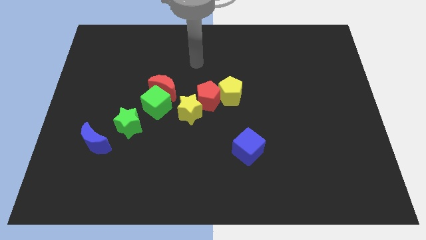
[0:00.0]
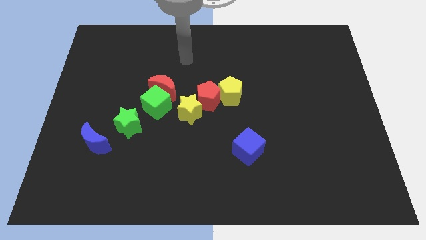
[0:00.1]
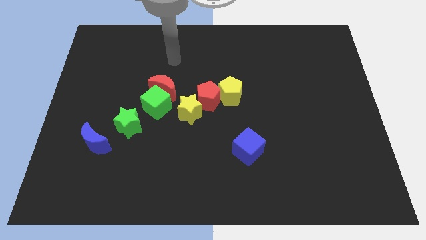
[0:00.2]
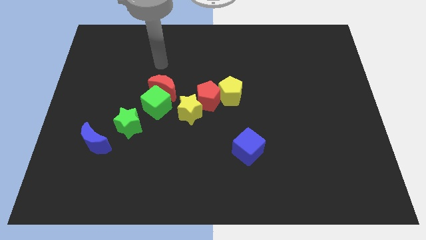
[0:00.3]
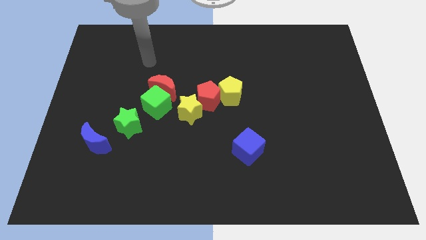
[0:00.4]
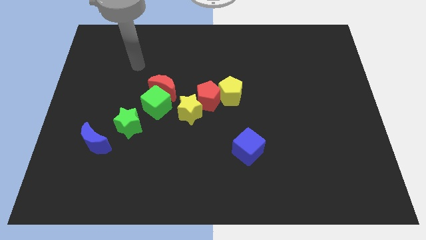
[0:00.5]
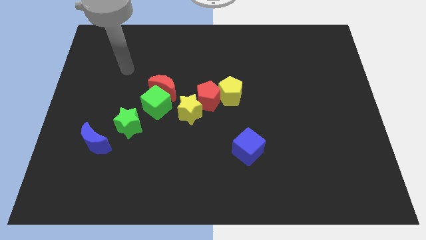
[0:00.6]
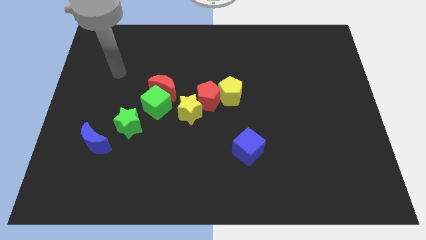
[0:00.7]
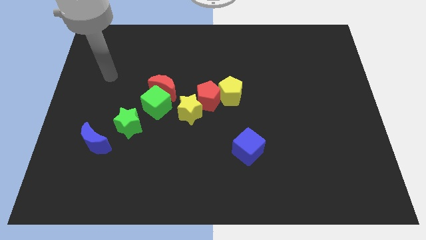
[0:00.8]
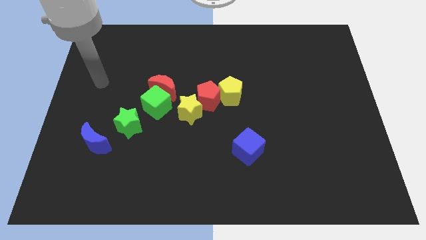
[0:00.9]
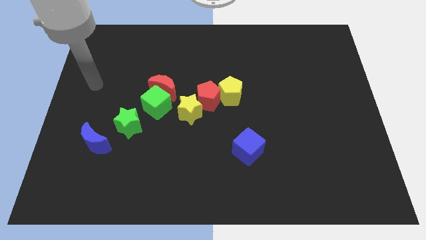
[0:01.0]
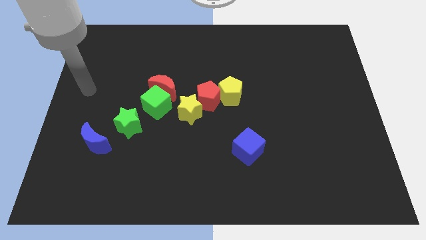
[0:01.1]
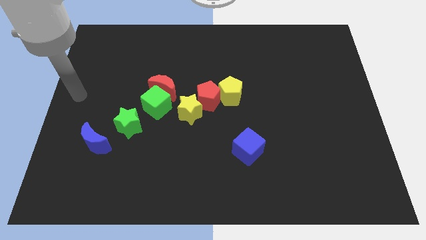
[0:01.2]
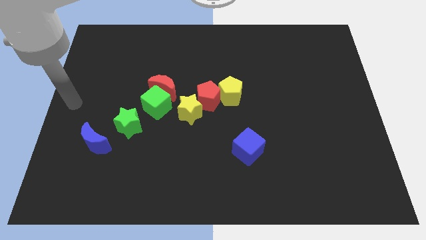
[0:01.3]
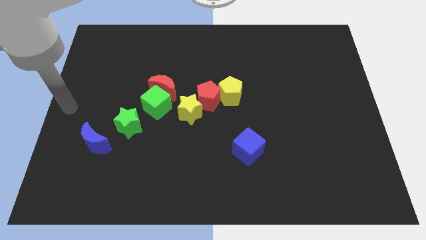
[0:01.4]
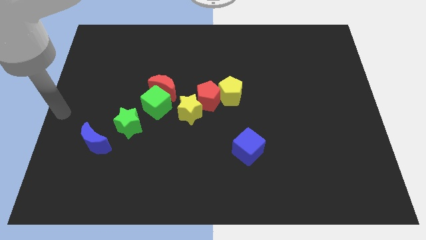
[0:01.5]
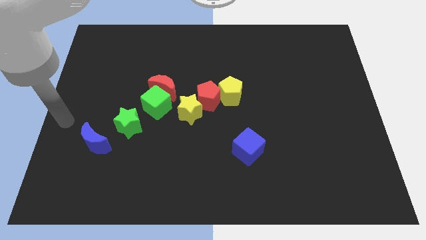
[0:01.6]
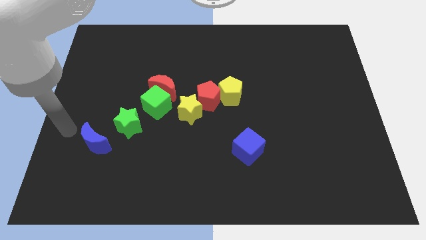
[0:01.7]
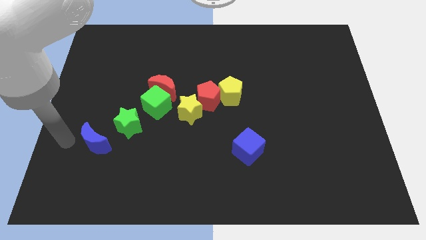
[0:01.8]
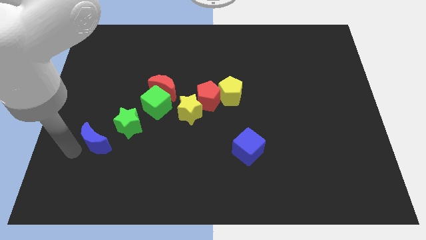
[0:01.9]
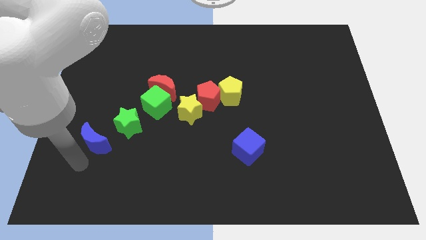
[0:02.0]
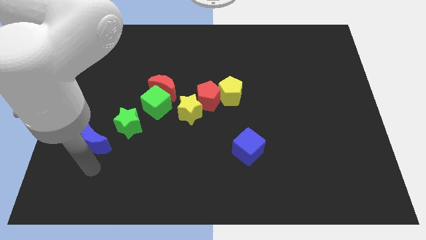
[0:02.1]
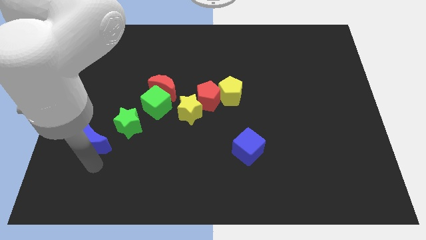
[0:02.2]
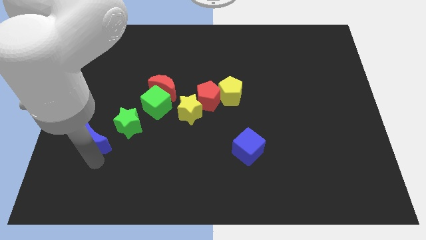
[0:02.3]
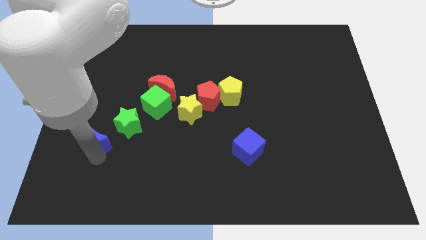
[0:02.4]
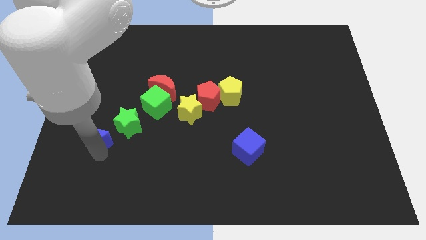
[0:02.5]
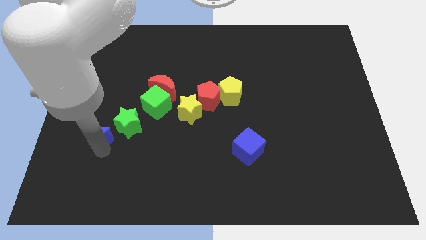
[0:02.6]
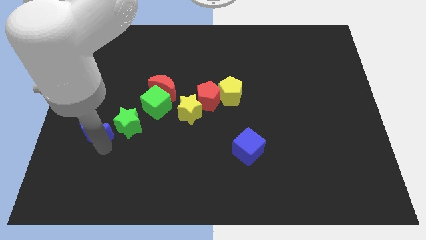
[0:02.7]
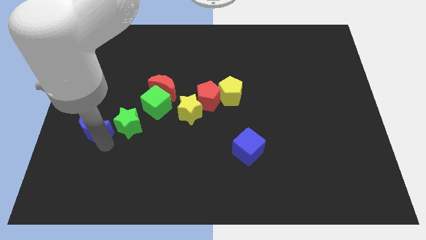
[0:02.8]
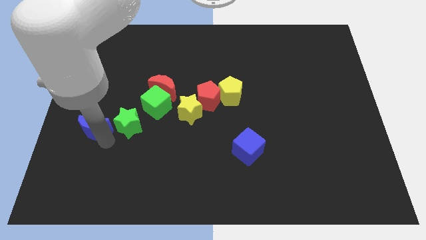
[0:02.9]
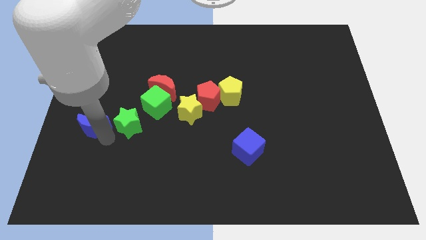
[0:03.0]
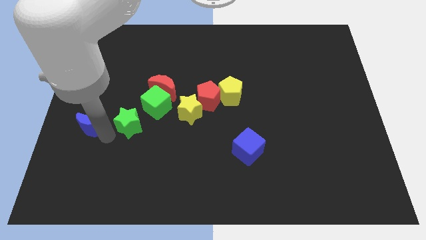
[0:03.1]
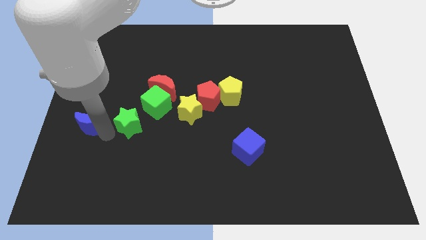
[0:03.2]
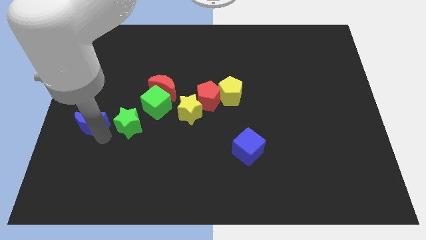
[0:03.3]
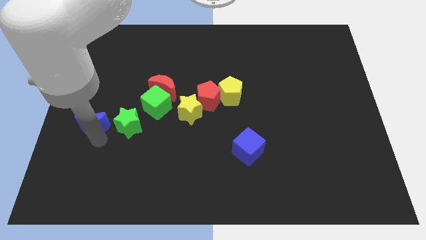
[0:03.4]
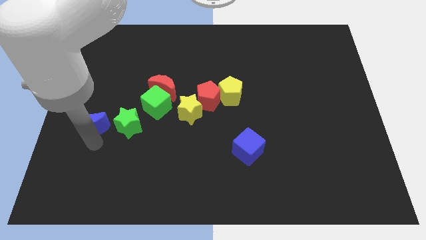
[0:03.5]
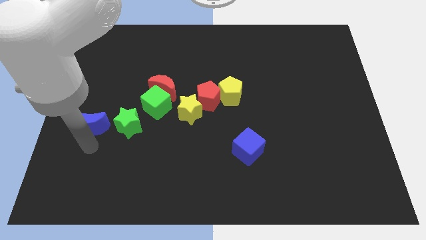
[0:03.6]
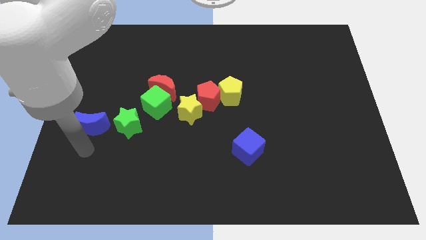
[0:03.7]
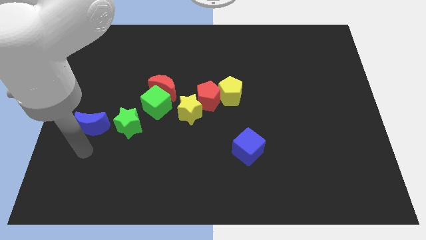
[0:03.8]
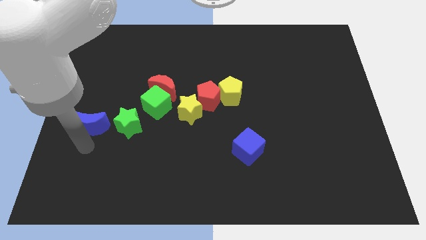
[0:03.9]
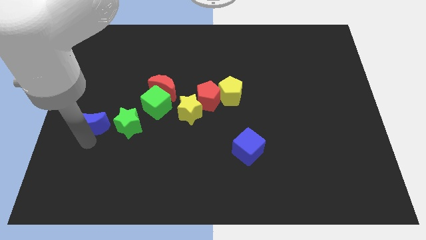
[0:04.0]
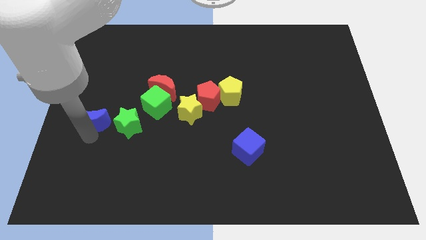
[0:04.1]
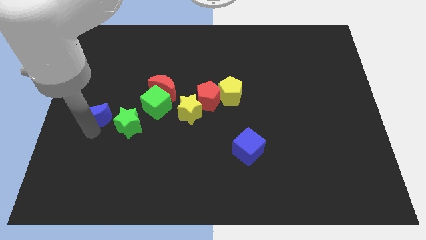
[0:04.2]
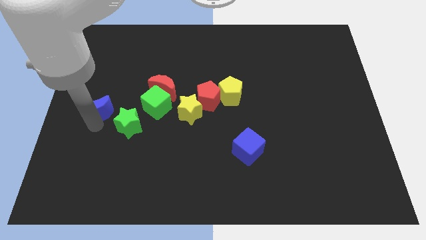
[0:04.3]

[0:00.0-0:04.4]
slide the blue moon slightly up

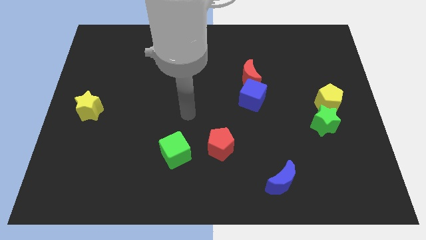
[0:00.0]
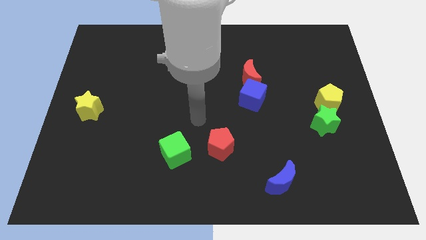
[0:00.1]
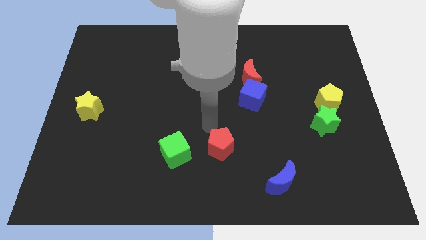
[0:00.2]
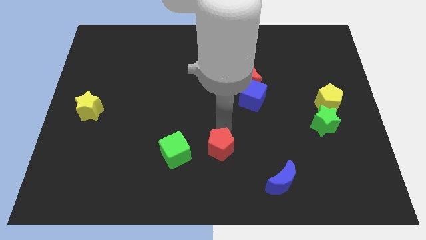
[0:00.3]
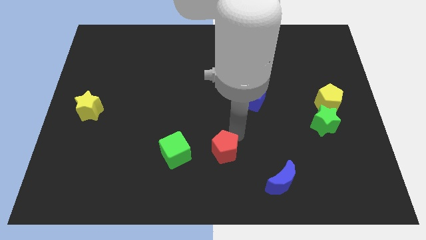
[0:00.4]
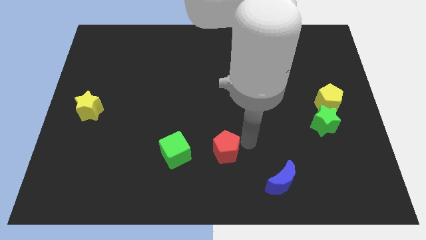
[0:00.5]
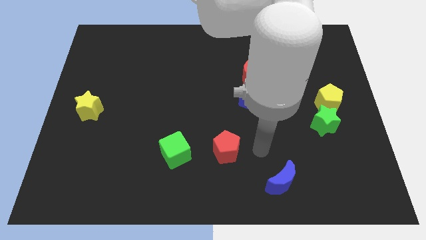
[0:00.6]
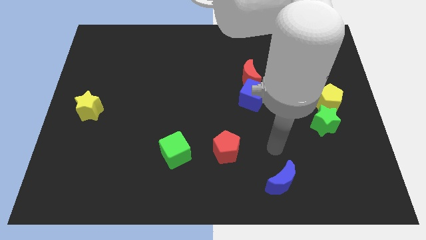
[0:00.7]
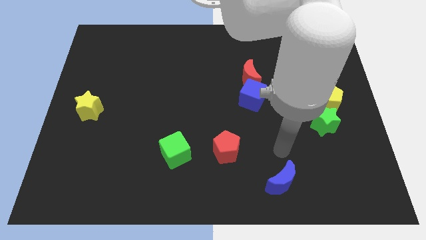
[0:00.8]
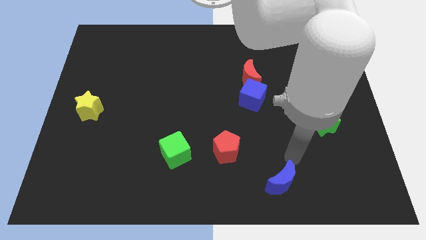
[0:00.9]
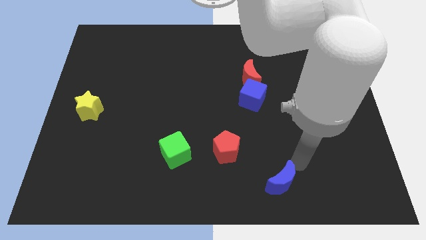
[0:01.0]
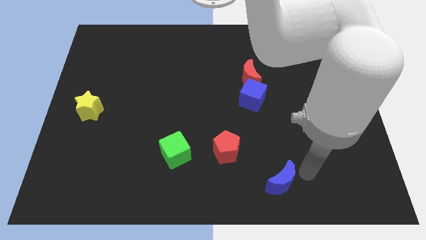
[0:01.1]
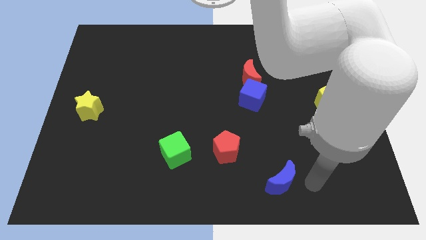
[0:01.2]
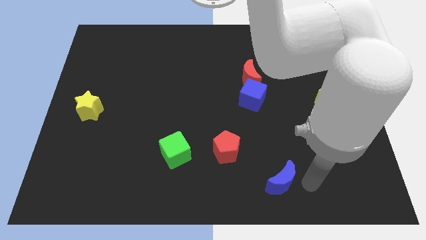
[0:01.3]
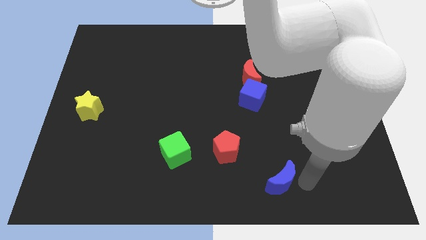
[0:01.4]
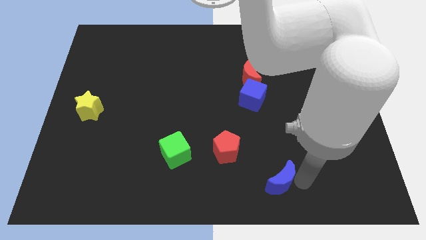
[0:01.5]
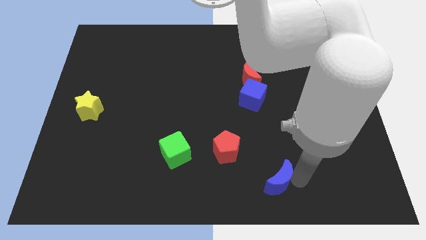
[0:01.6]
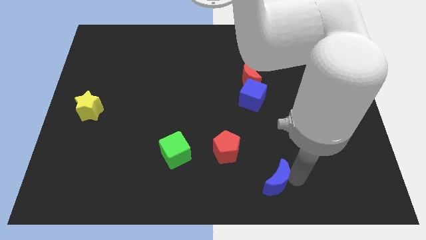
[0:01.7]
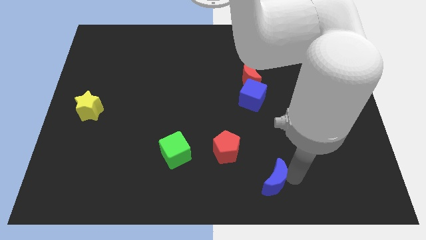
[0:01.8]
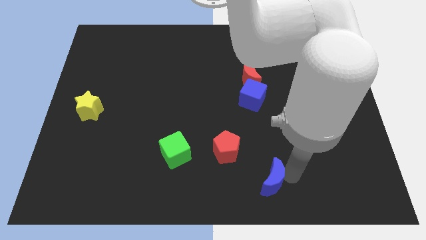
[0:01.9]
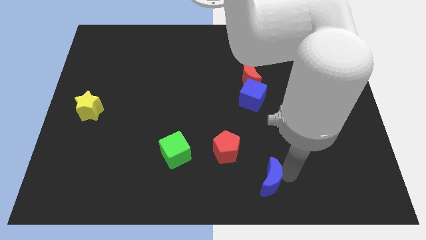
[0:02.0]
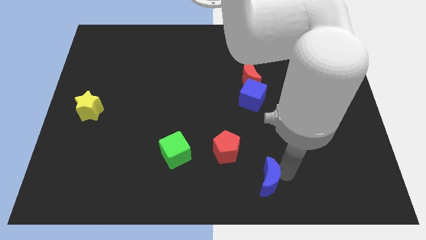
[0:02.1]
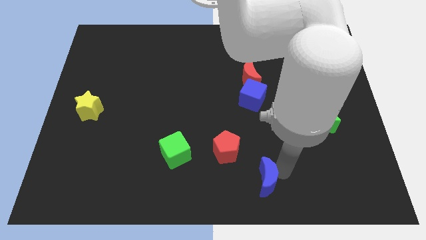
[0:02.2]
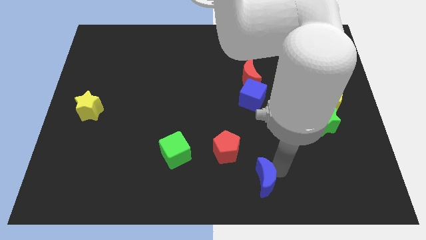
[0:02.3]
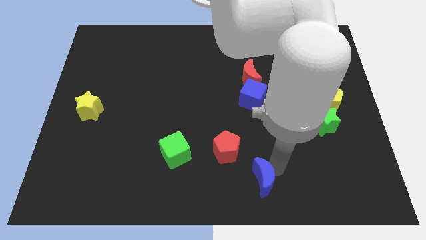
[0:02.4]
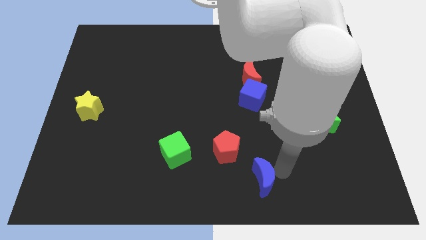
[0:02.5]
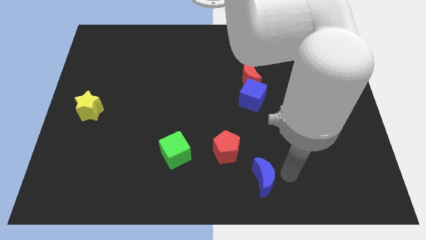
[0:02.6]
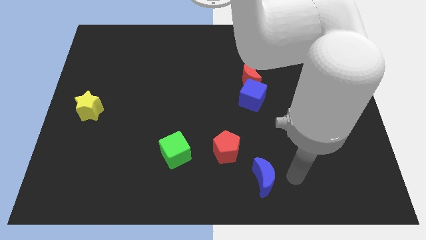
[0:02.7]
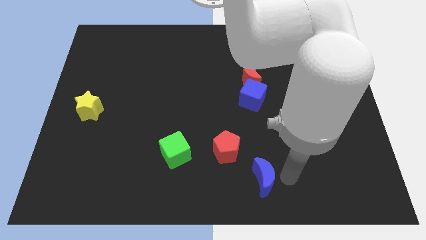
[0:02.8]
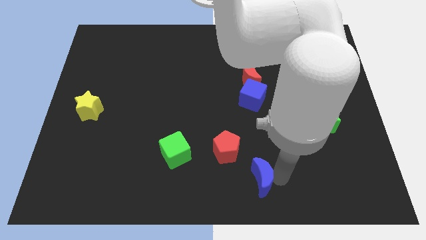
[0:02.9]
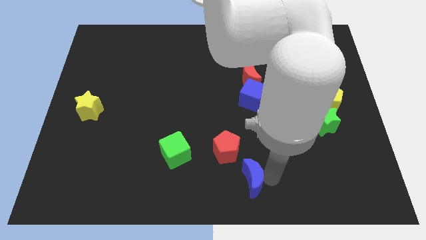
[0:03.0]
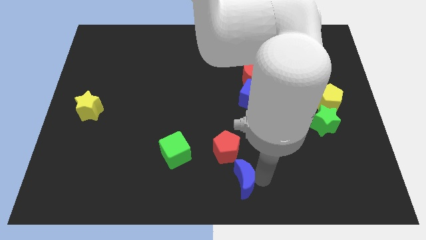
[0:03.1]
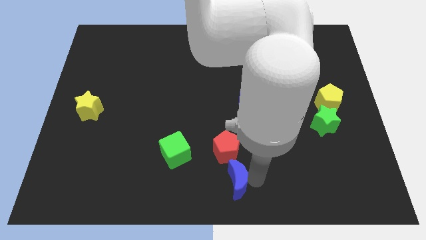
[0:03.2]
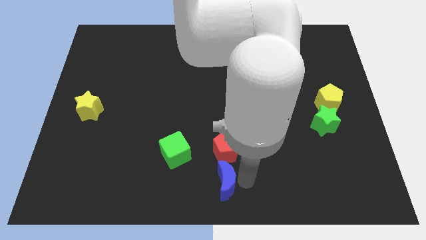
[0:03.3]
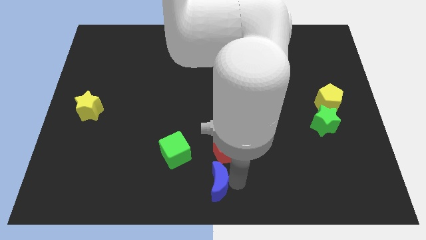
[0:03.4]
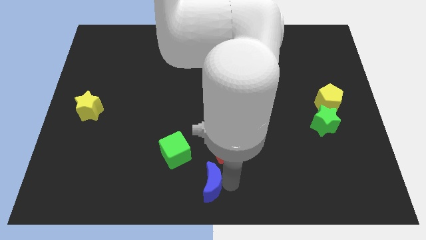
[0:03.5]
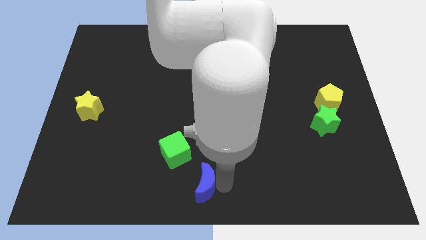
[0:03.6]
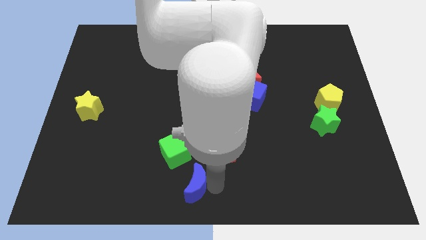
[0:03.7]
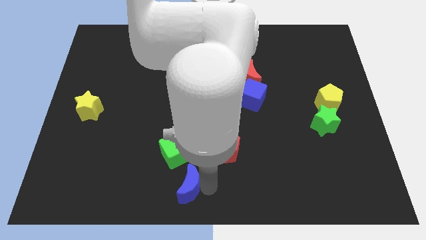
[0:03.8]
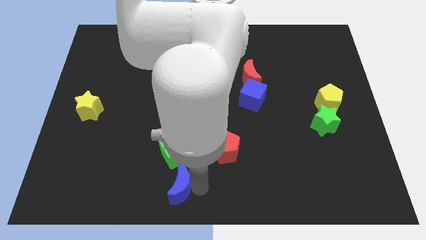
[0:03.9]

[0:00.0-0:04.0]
push the blue moon left
